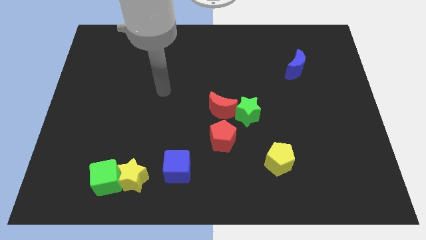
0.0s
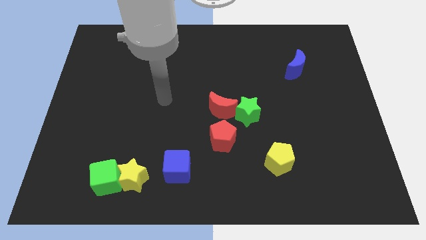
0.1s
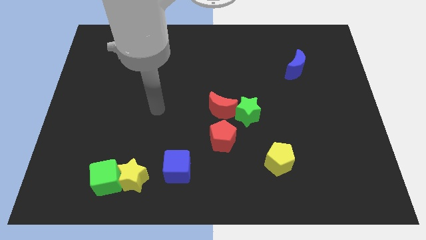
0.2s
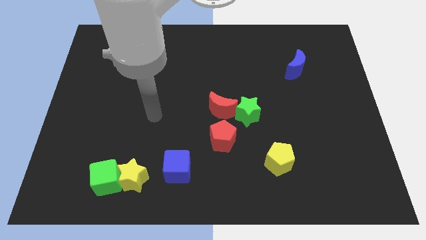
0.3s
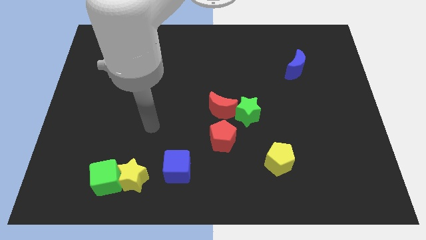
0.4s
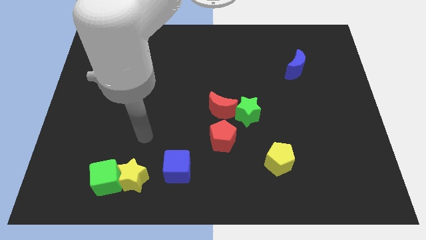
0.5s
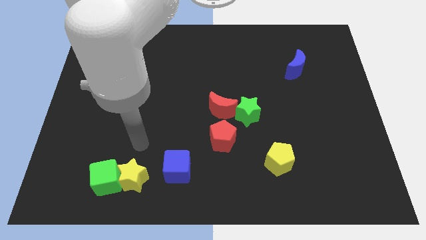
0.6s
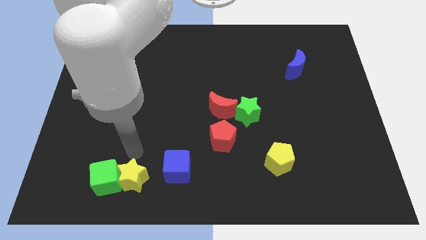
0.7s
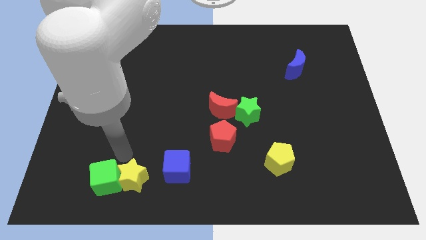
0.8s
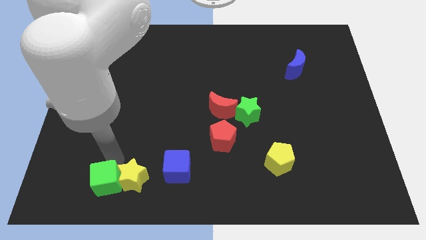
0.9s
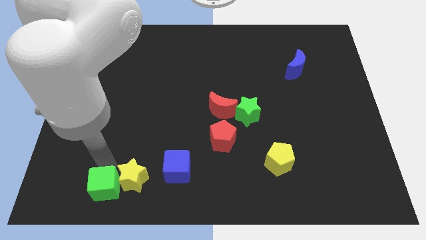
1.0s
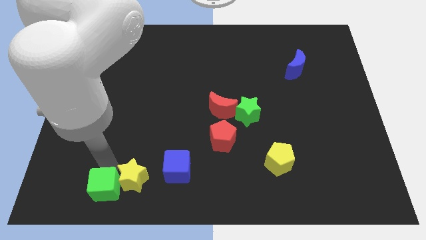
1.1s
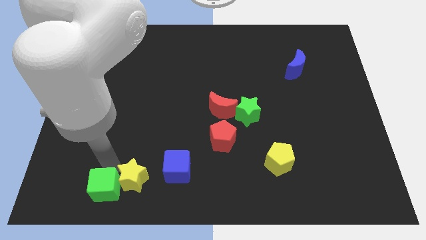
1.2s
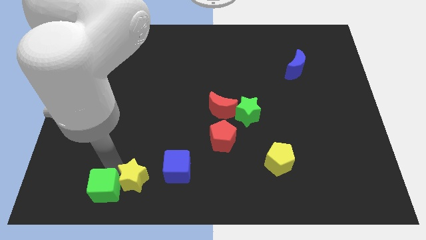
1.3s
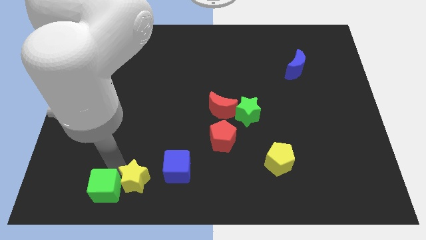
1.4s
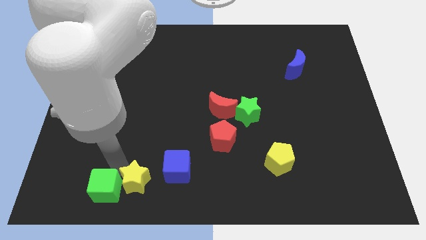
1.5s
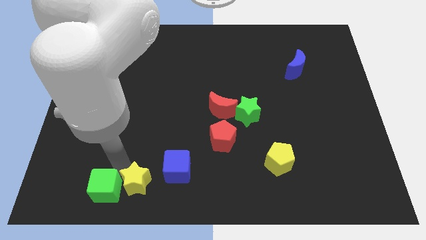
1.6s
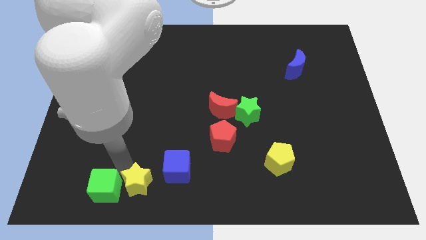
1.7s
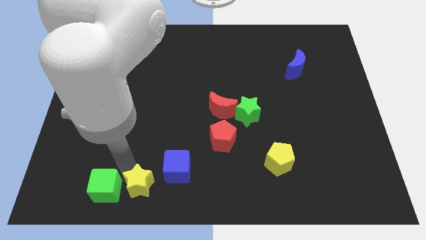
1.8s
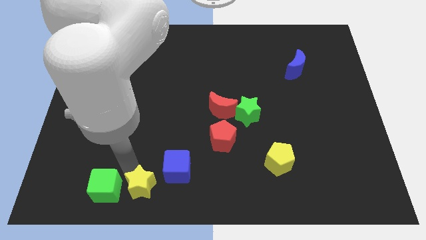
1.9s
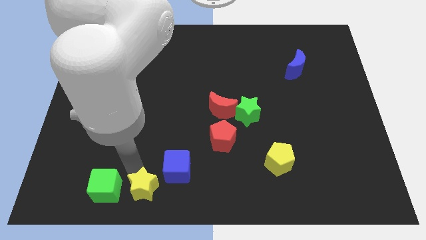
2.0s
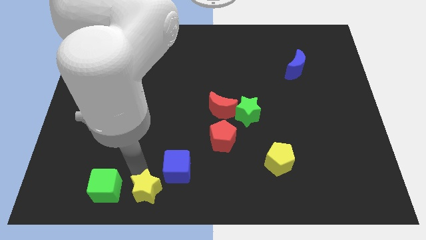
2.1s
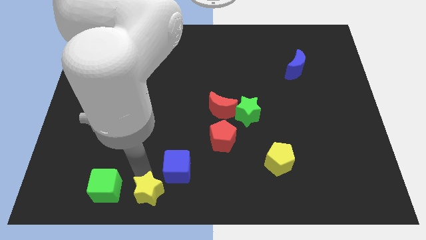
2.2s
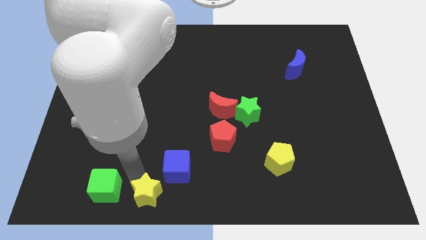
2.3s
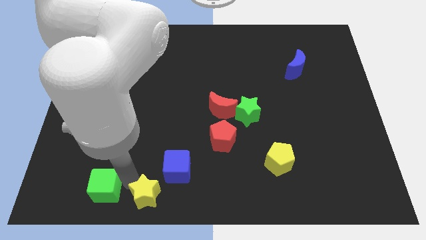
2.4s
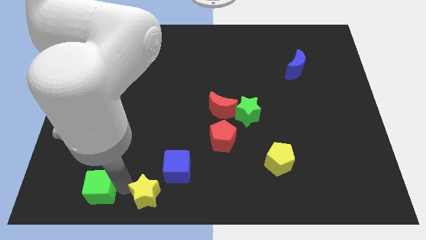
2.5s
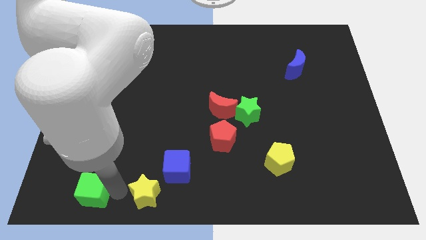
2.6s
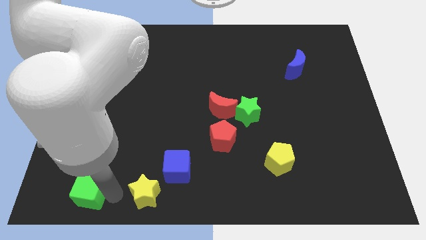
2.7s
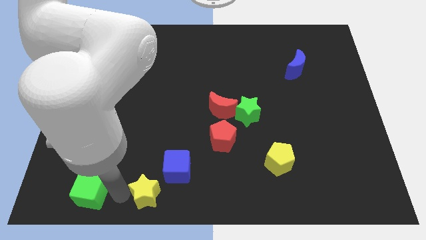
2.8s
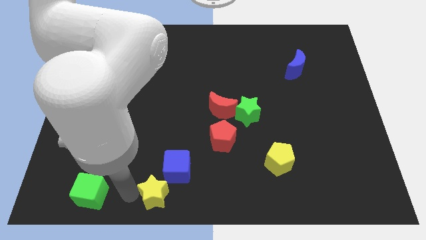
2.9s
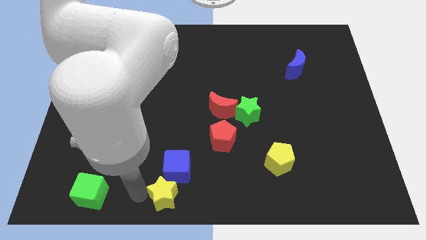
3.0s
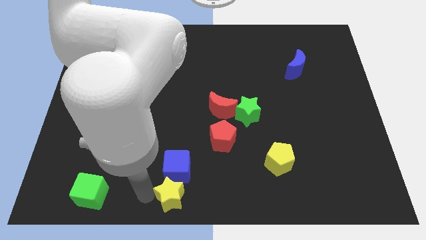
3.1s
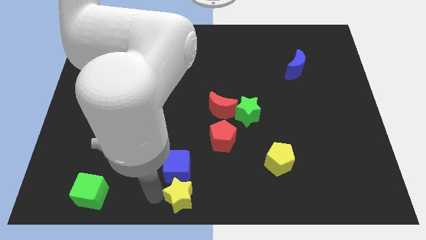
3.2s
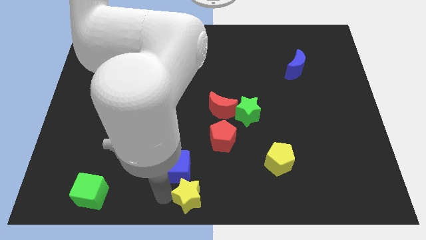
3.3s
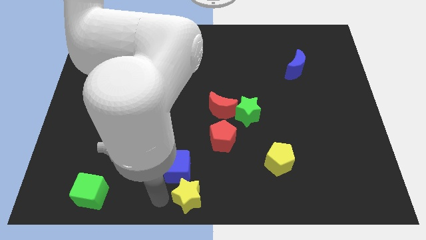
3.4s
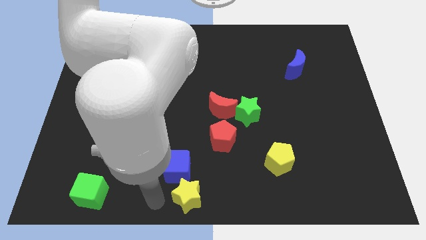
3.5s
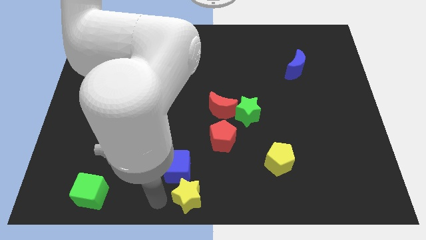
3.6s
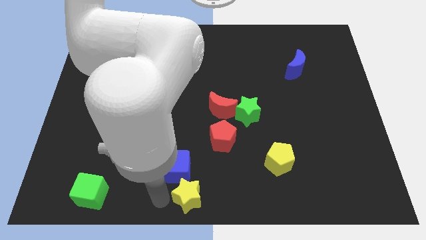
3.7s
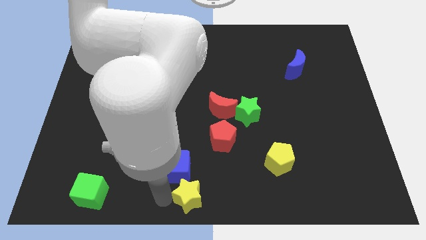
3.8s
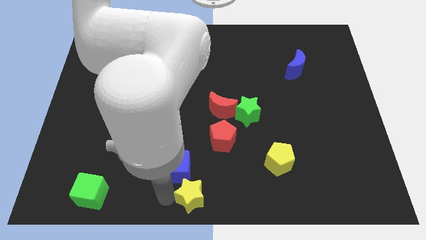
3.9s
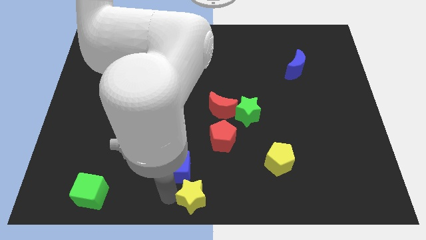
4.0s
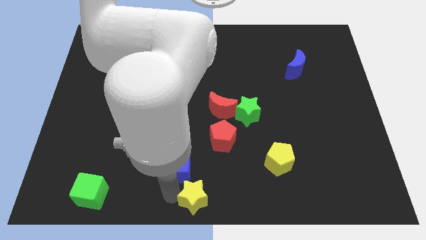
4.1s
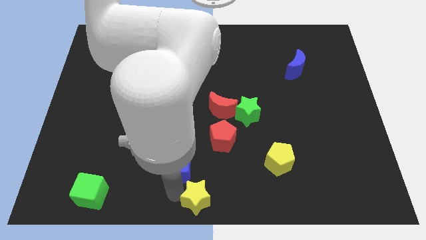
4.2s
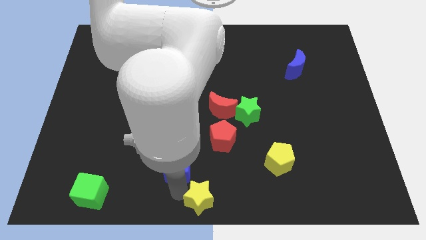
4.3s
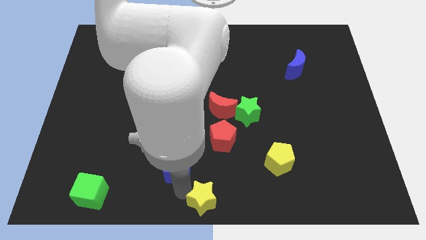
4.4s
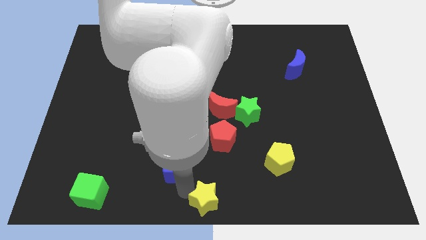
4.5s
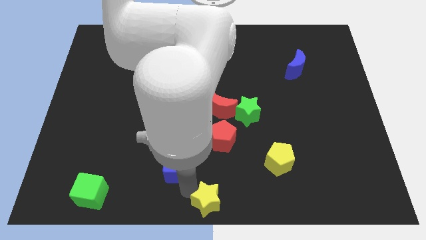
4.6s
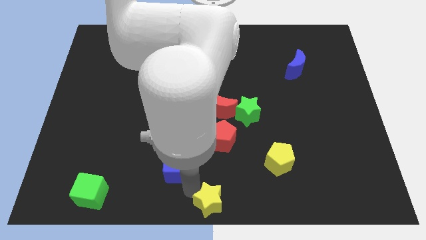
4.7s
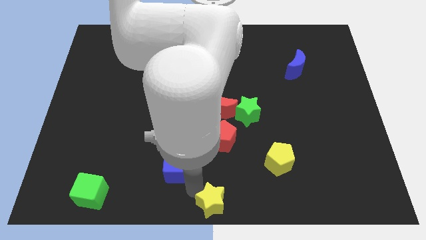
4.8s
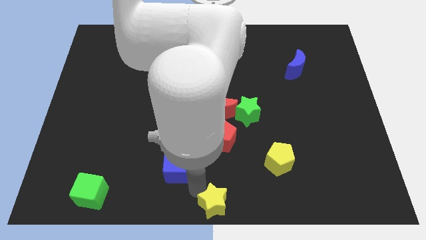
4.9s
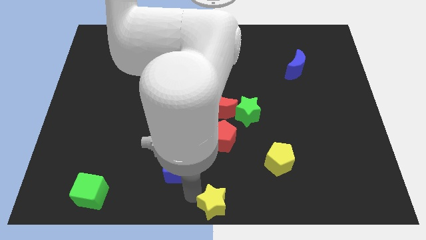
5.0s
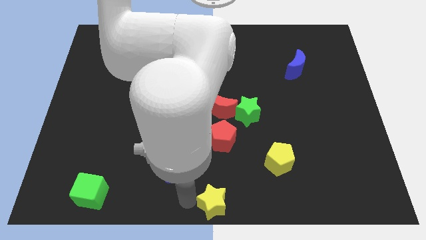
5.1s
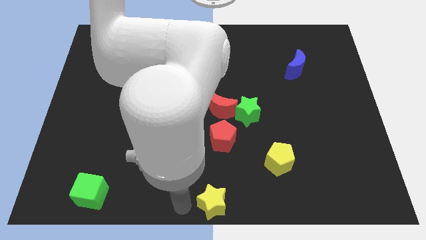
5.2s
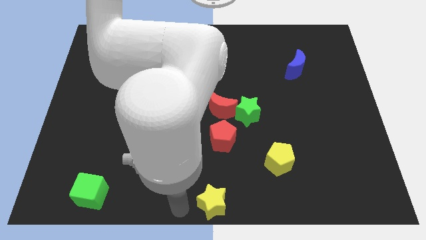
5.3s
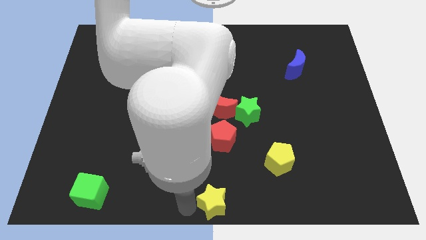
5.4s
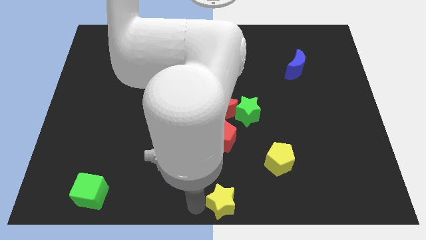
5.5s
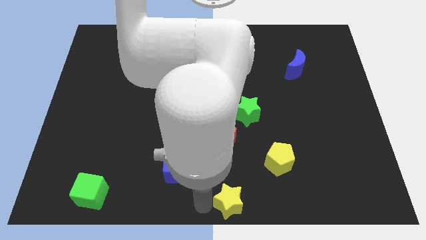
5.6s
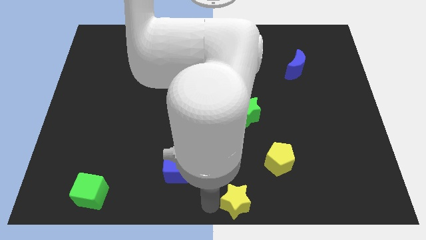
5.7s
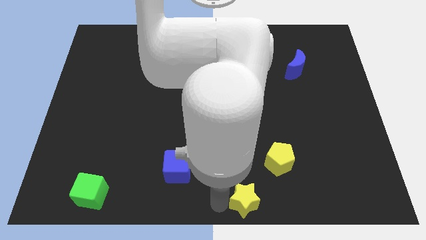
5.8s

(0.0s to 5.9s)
slide the yellow star right

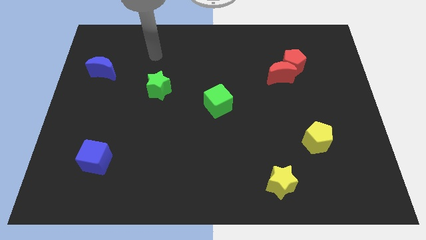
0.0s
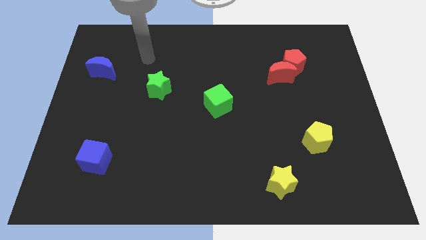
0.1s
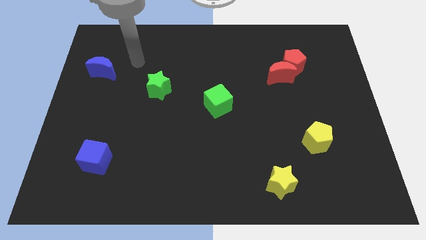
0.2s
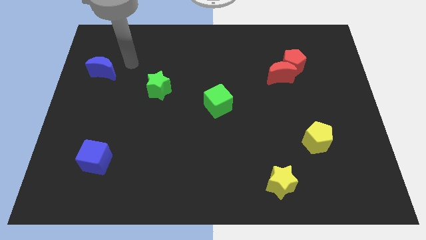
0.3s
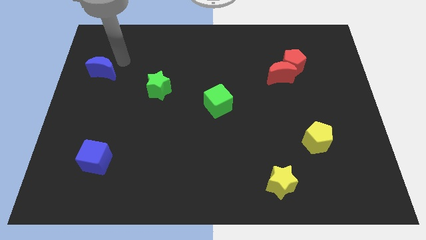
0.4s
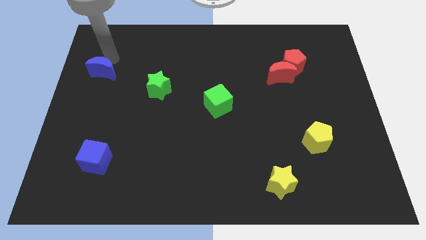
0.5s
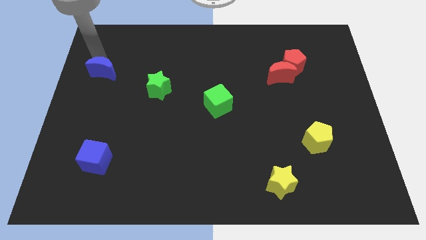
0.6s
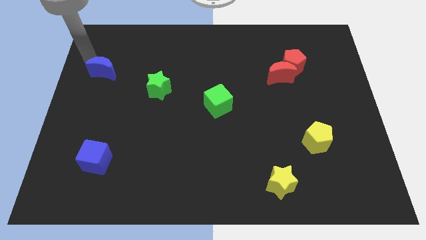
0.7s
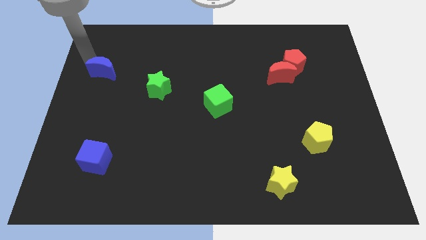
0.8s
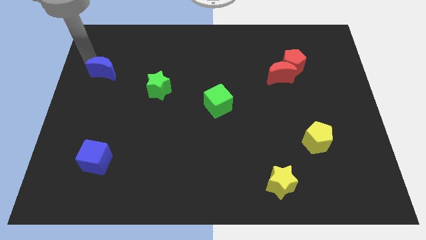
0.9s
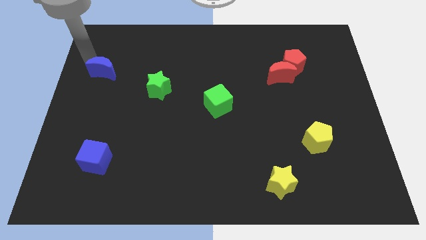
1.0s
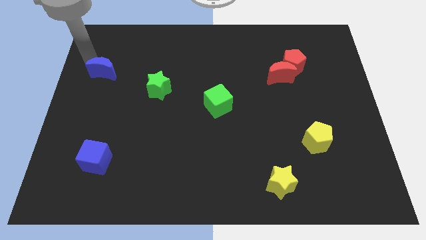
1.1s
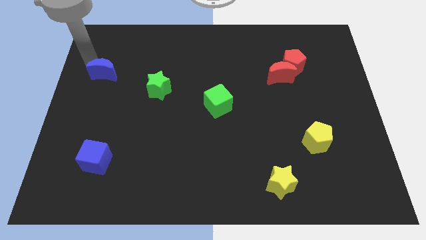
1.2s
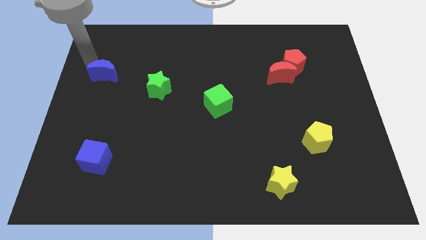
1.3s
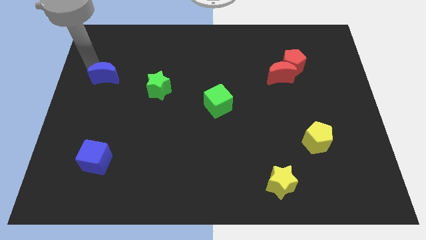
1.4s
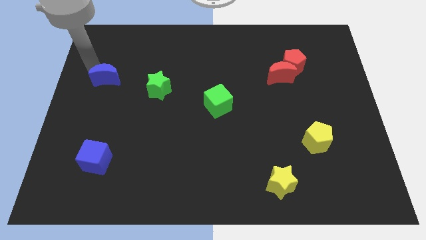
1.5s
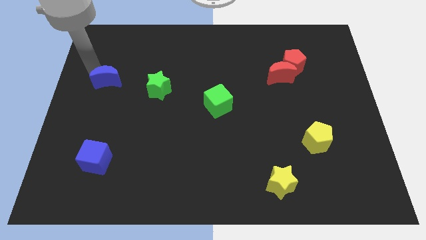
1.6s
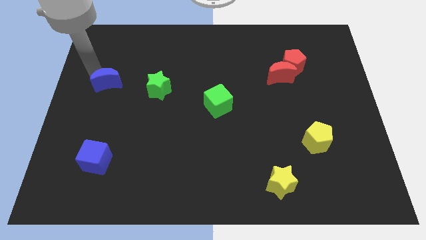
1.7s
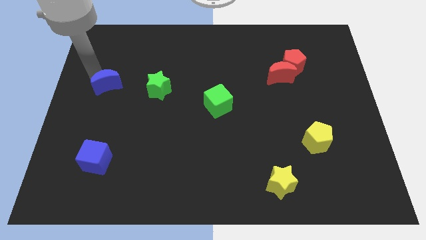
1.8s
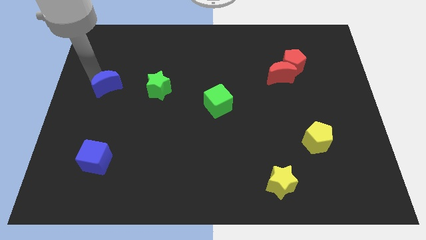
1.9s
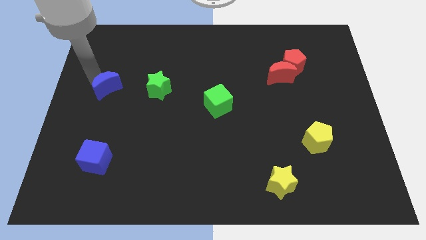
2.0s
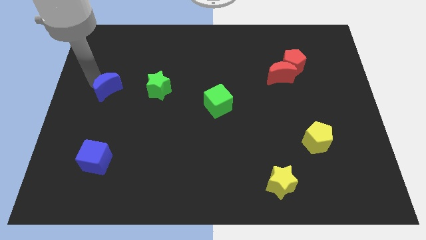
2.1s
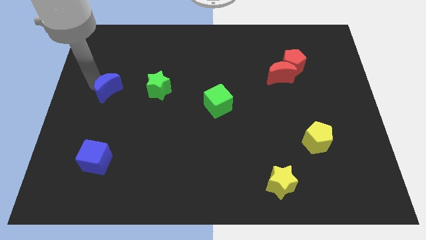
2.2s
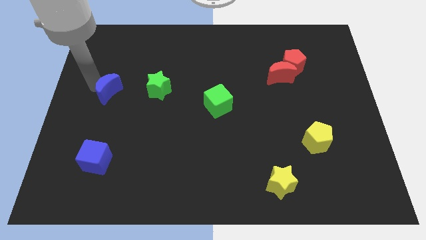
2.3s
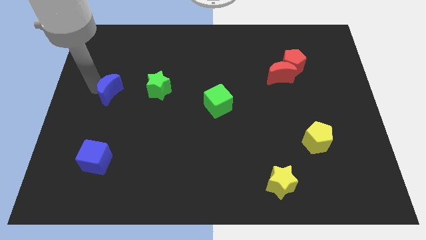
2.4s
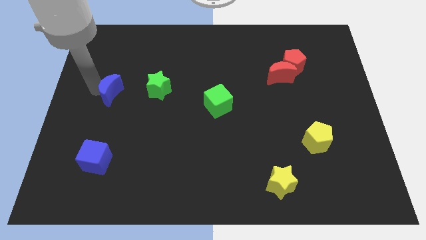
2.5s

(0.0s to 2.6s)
slide the blue moon downwards and to the right a little
